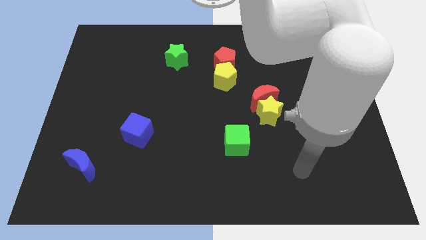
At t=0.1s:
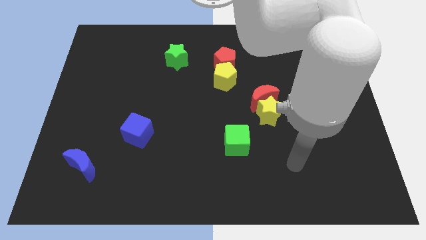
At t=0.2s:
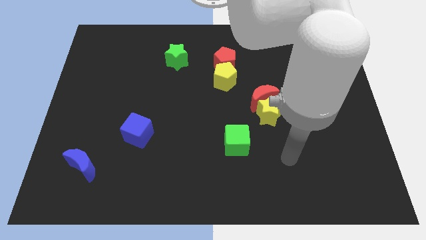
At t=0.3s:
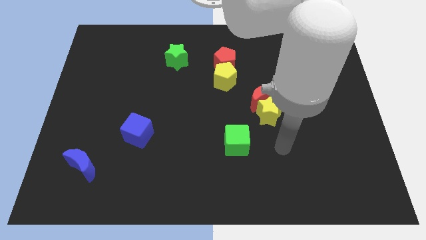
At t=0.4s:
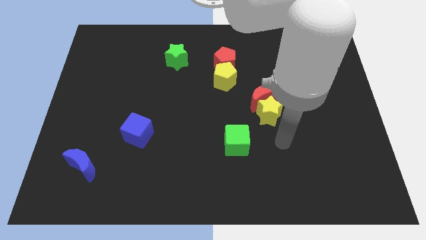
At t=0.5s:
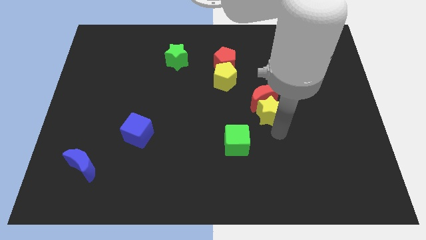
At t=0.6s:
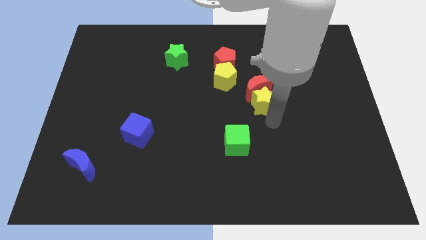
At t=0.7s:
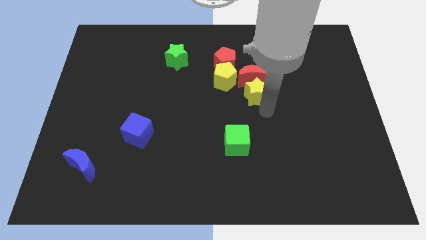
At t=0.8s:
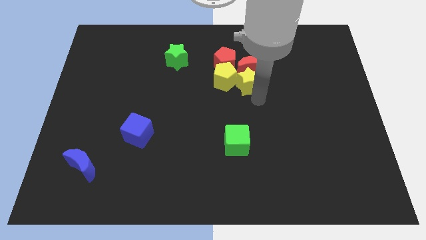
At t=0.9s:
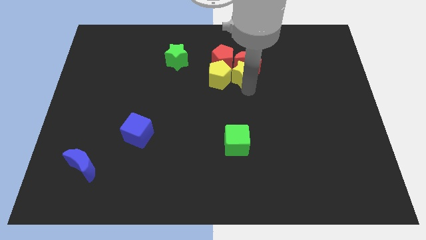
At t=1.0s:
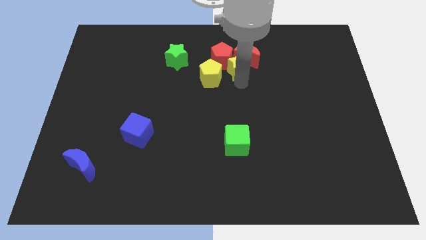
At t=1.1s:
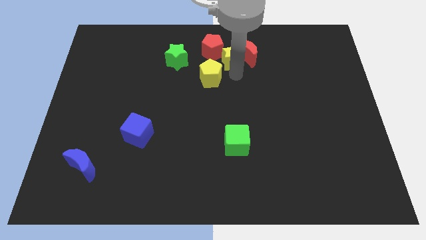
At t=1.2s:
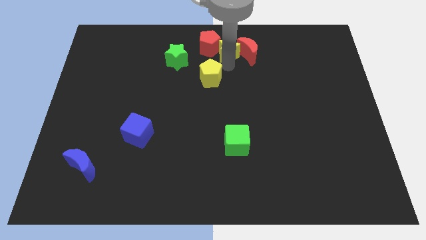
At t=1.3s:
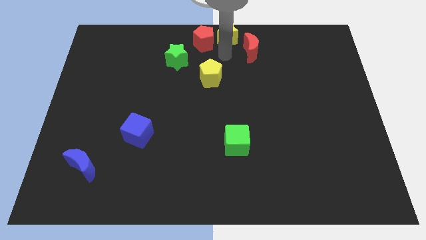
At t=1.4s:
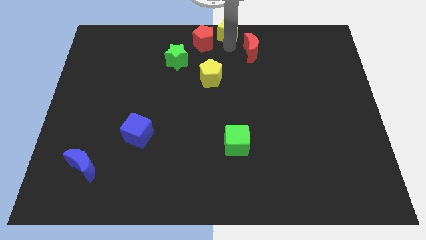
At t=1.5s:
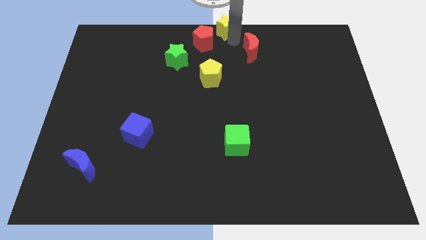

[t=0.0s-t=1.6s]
separate the red moon from the yellow star

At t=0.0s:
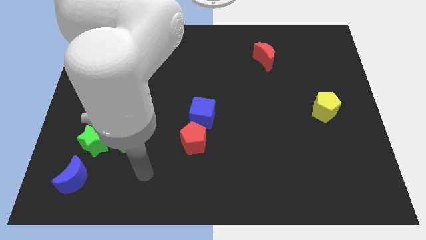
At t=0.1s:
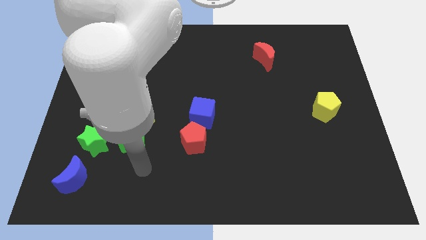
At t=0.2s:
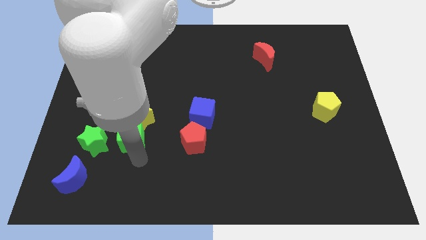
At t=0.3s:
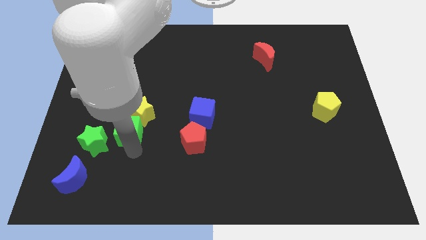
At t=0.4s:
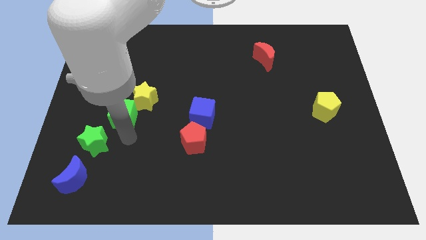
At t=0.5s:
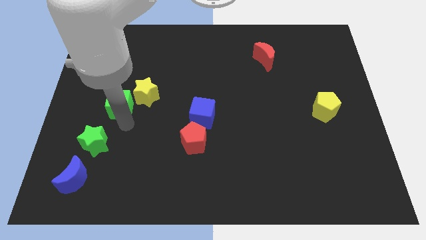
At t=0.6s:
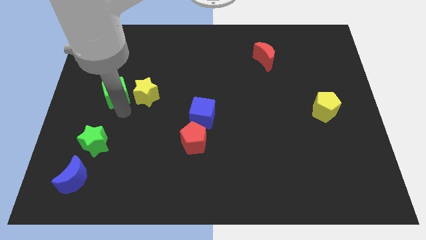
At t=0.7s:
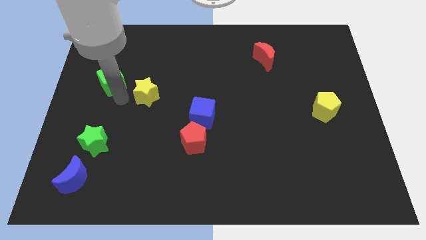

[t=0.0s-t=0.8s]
move the yellow star away from the green cube

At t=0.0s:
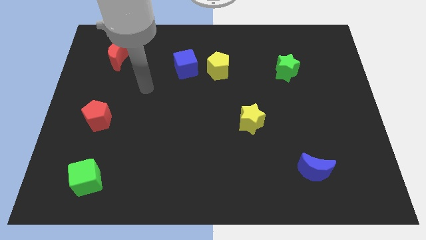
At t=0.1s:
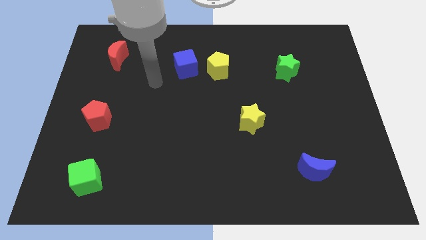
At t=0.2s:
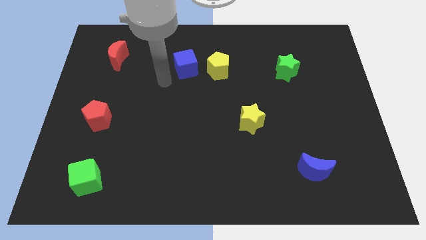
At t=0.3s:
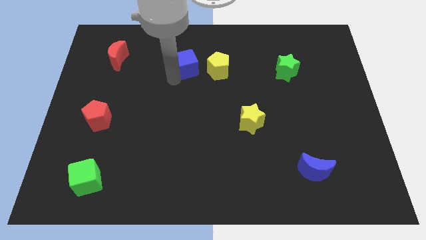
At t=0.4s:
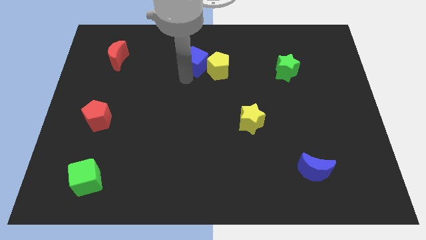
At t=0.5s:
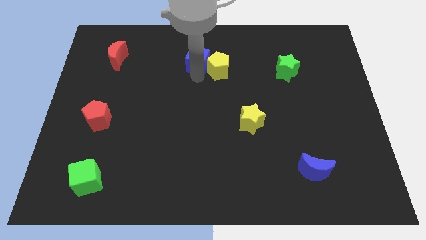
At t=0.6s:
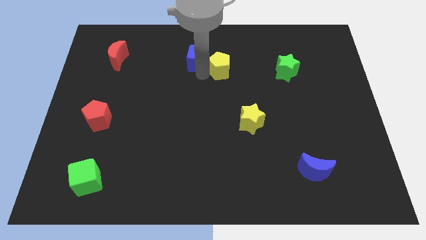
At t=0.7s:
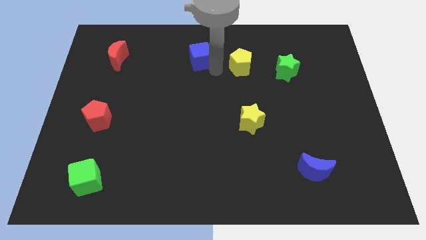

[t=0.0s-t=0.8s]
move the blue cube away from the yellow pentagon

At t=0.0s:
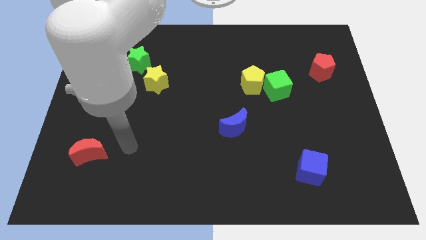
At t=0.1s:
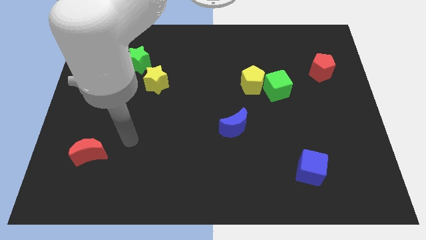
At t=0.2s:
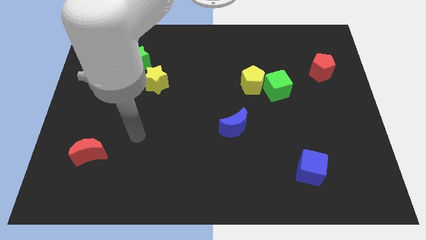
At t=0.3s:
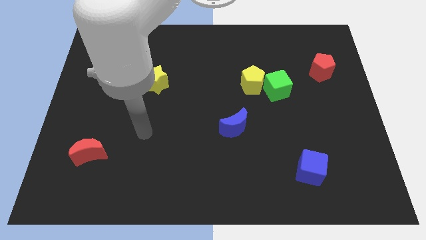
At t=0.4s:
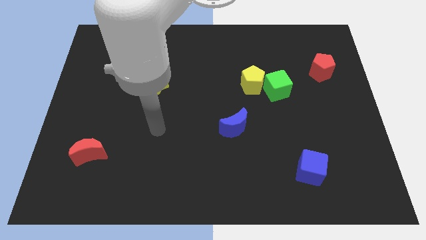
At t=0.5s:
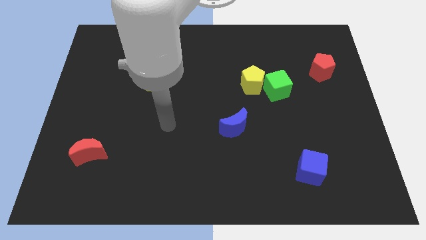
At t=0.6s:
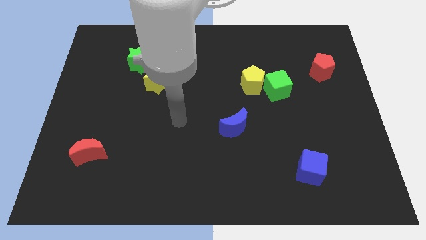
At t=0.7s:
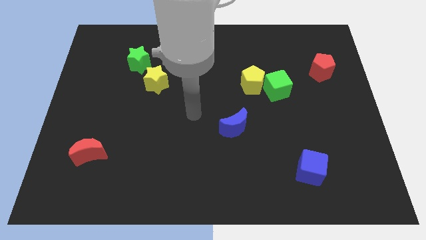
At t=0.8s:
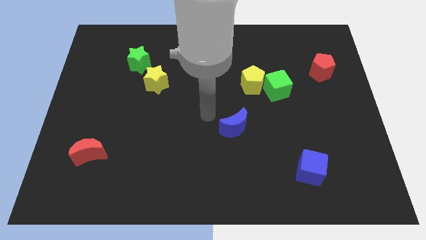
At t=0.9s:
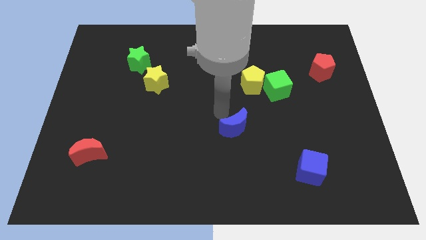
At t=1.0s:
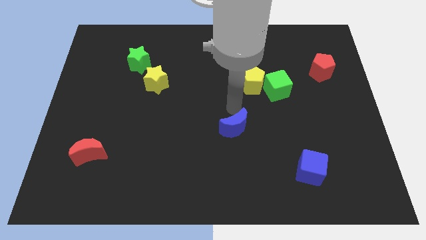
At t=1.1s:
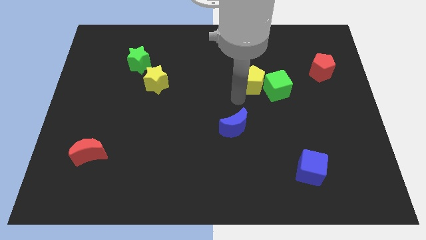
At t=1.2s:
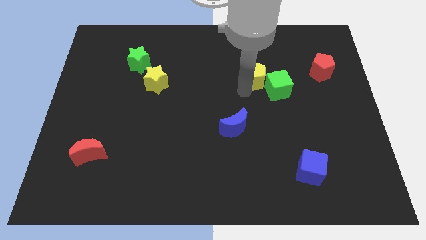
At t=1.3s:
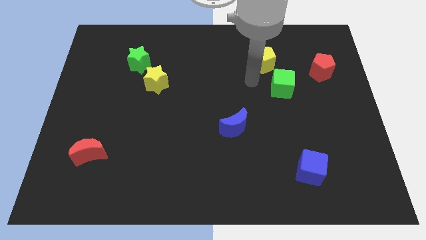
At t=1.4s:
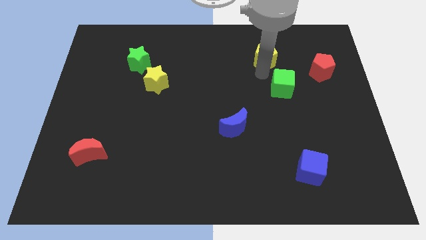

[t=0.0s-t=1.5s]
pull the green cube apart from the yellow pentagon

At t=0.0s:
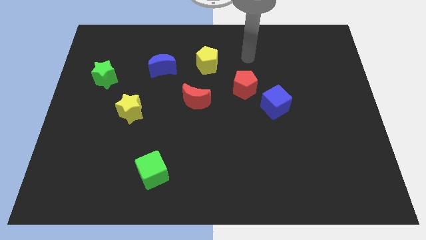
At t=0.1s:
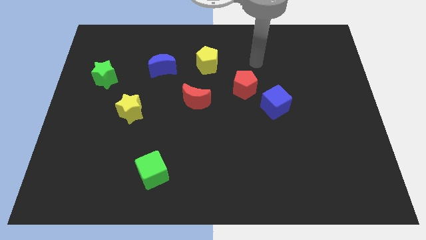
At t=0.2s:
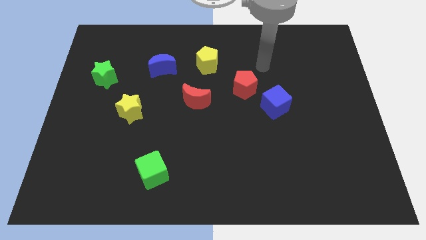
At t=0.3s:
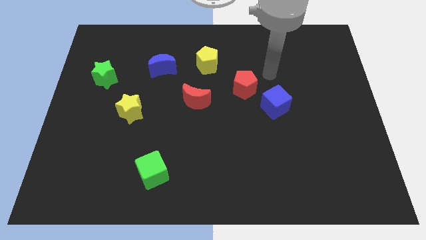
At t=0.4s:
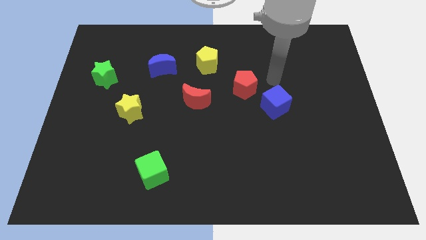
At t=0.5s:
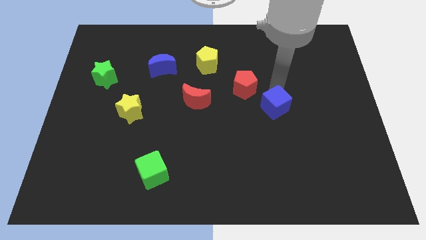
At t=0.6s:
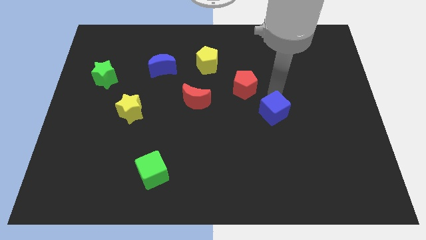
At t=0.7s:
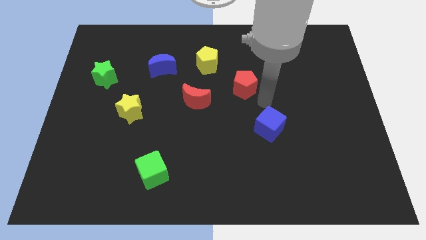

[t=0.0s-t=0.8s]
pull the red pentagon apart from the blue cube

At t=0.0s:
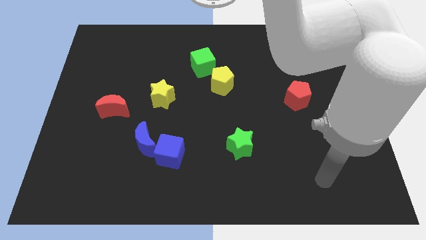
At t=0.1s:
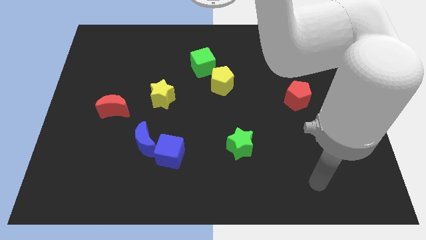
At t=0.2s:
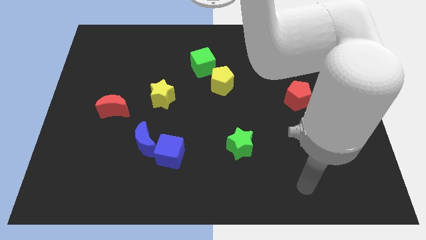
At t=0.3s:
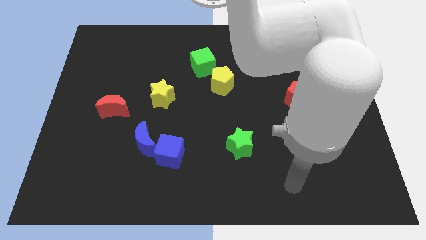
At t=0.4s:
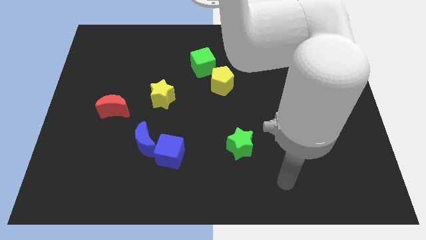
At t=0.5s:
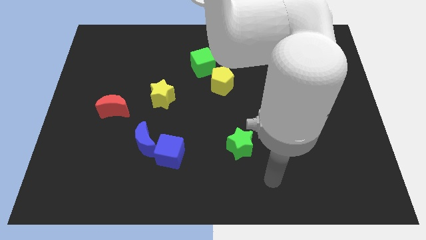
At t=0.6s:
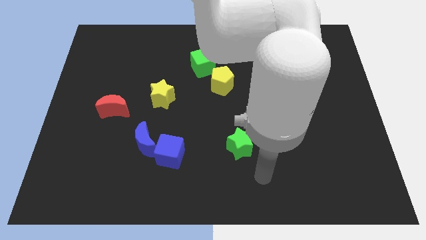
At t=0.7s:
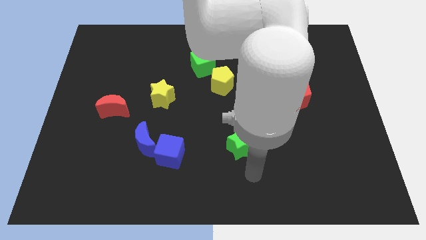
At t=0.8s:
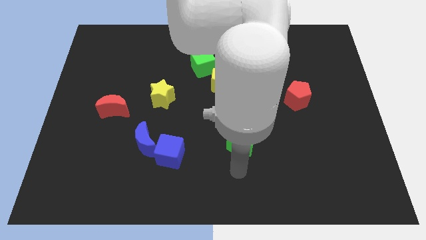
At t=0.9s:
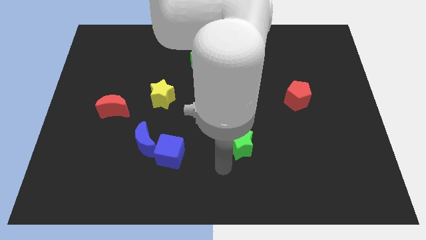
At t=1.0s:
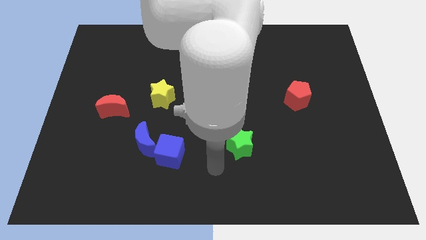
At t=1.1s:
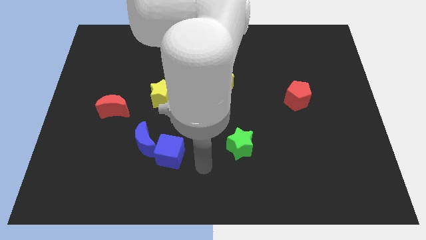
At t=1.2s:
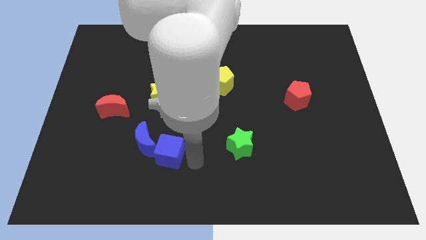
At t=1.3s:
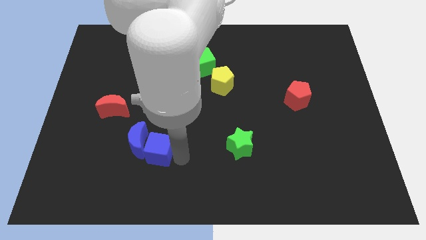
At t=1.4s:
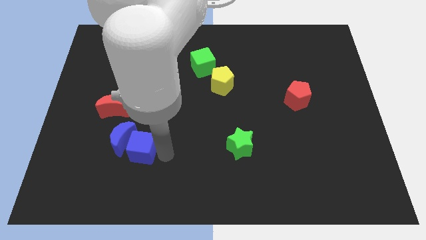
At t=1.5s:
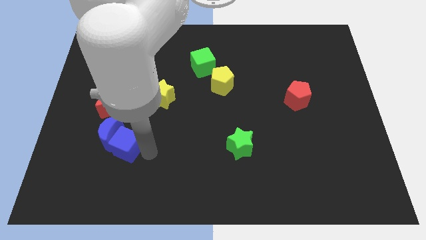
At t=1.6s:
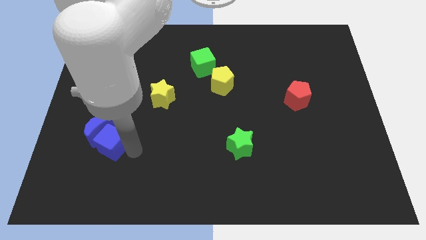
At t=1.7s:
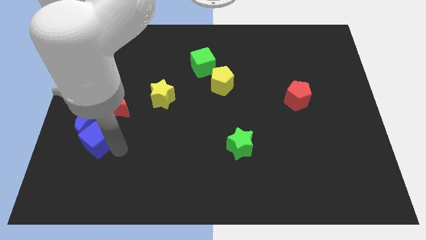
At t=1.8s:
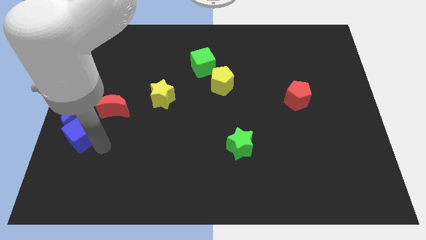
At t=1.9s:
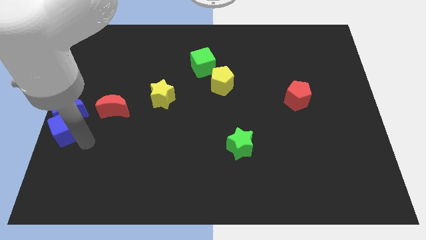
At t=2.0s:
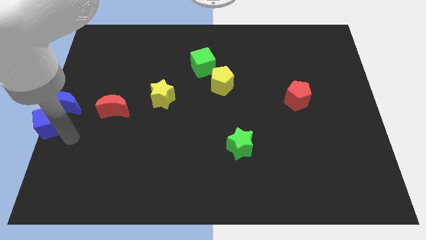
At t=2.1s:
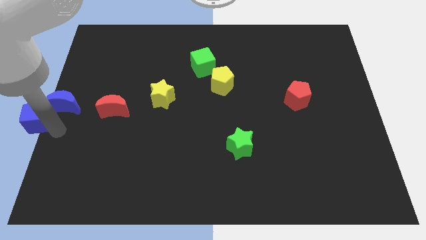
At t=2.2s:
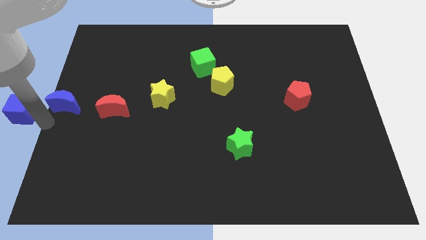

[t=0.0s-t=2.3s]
pull the blue moon apart from the blue cube

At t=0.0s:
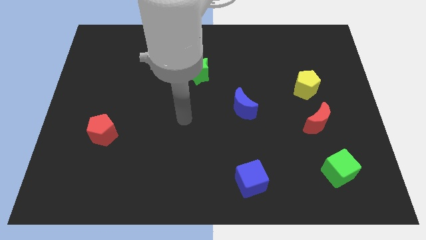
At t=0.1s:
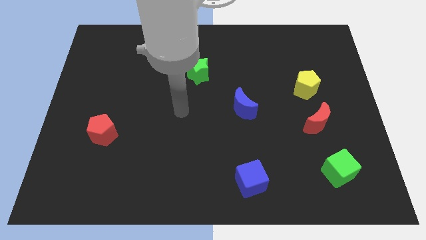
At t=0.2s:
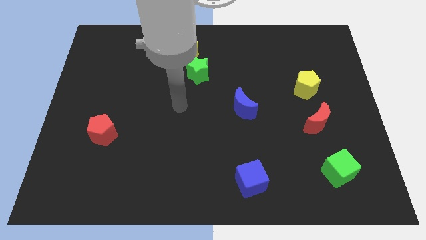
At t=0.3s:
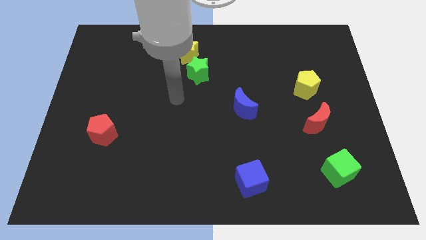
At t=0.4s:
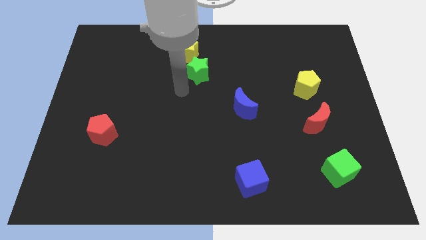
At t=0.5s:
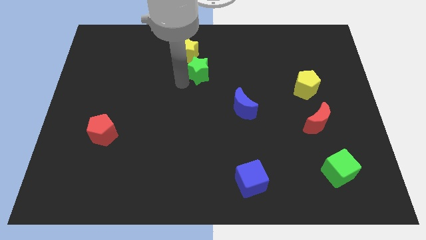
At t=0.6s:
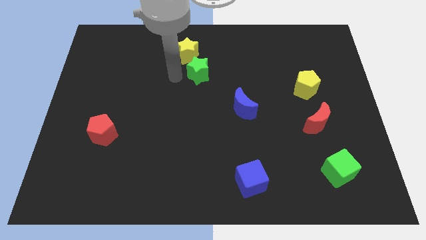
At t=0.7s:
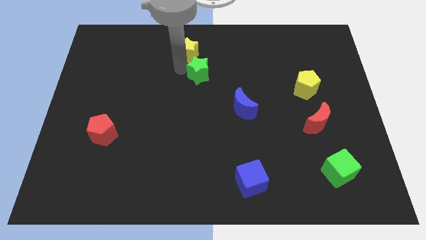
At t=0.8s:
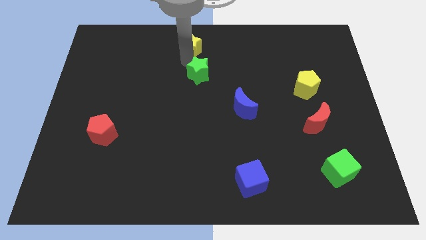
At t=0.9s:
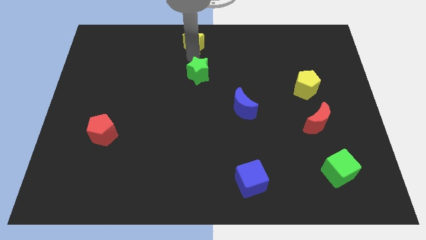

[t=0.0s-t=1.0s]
pull the green star apart from the yellow star

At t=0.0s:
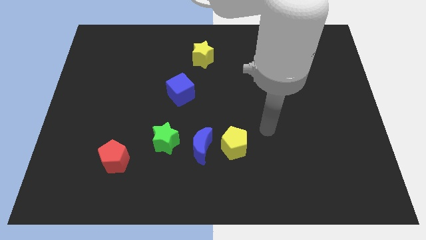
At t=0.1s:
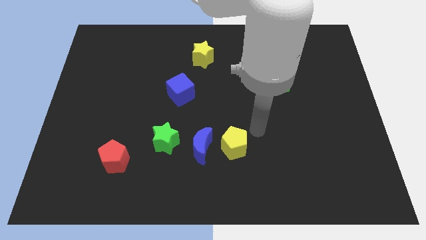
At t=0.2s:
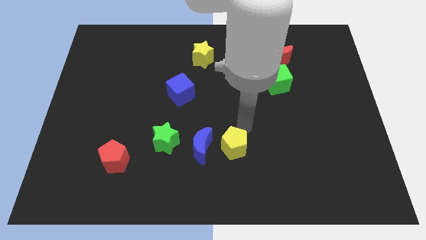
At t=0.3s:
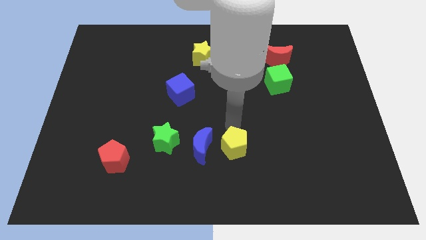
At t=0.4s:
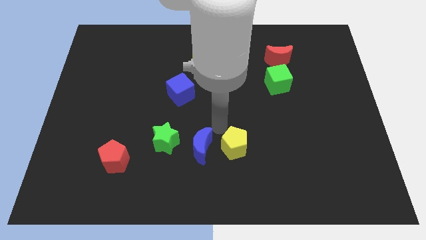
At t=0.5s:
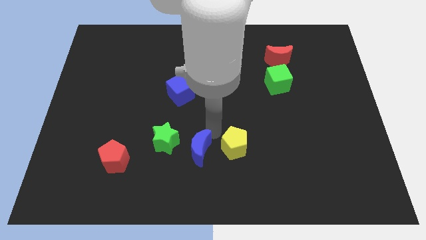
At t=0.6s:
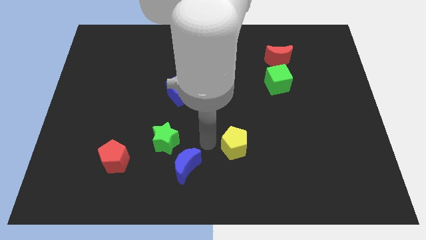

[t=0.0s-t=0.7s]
separate the yellow pentagon from the blue moon
